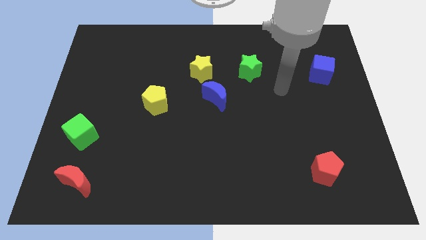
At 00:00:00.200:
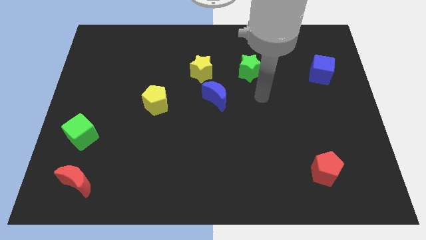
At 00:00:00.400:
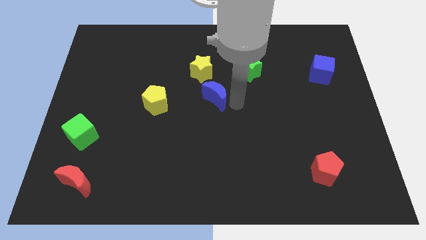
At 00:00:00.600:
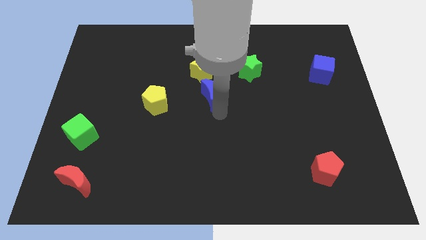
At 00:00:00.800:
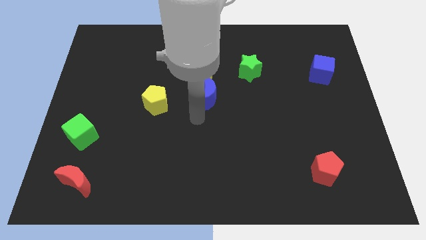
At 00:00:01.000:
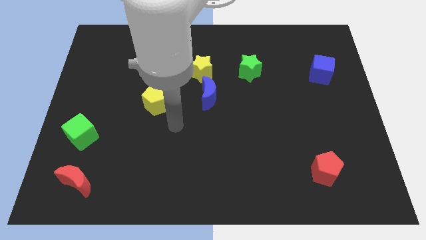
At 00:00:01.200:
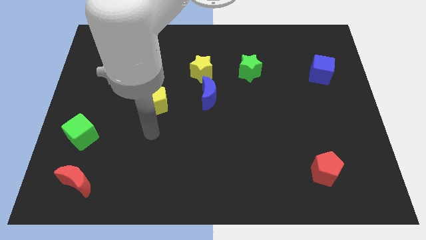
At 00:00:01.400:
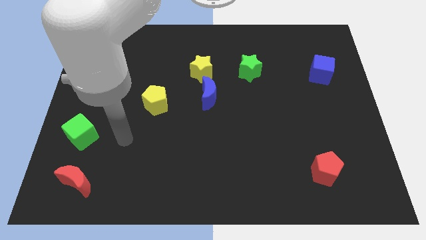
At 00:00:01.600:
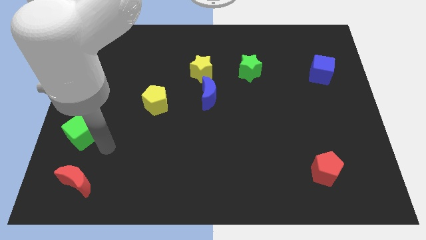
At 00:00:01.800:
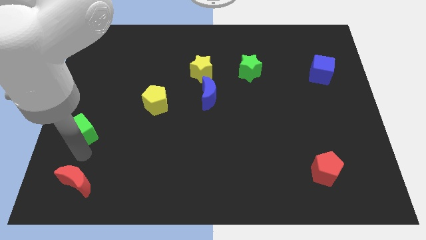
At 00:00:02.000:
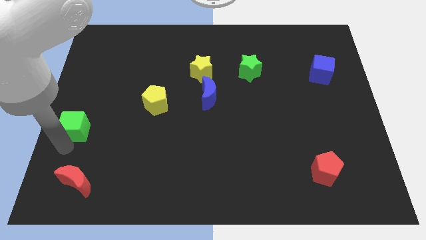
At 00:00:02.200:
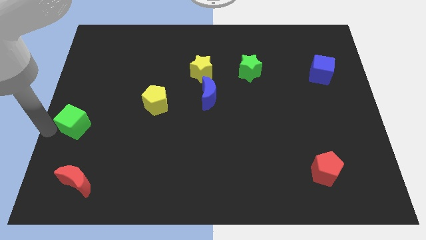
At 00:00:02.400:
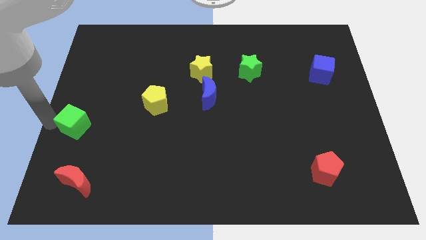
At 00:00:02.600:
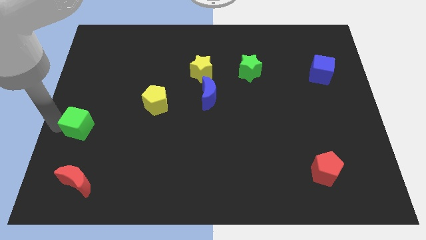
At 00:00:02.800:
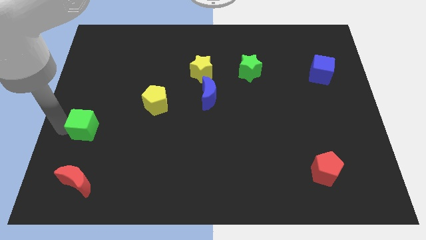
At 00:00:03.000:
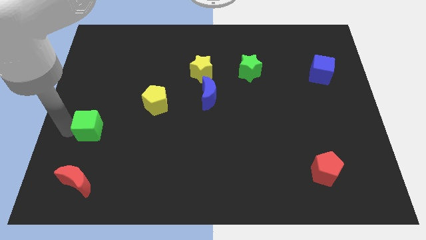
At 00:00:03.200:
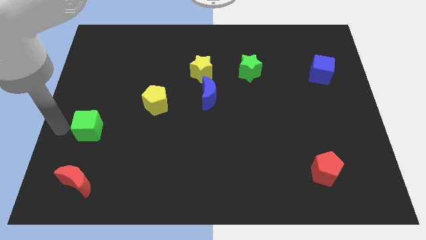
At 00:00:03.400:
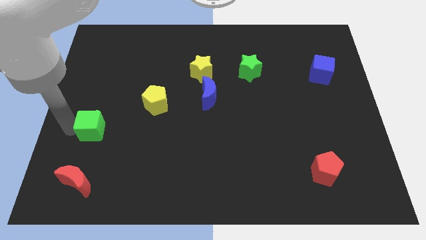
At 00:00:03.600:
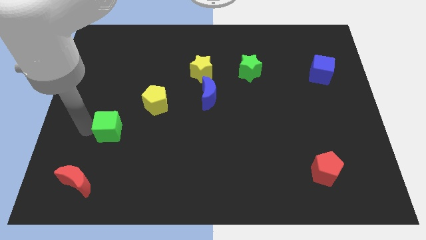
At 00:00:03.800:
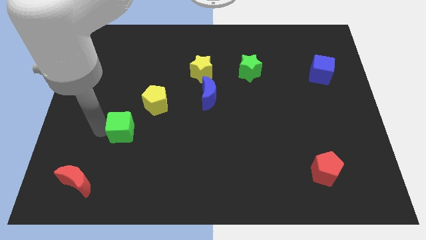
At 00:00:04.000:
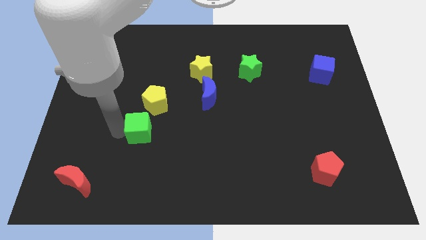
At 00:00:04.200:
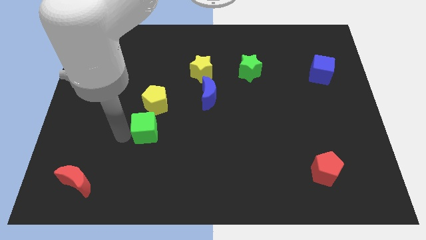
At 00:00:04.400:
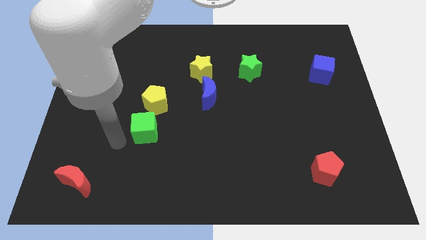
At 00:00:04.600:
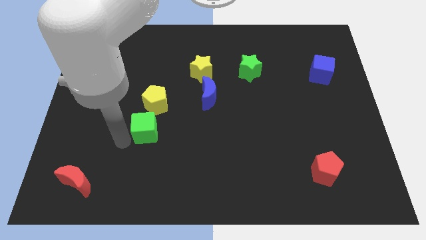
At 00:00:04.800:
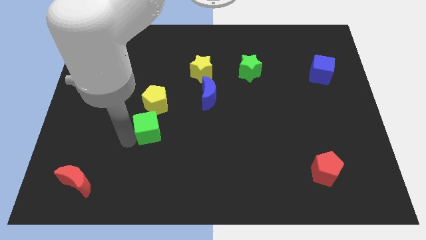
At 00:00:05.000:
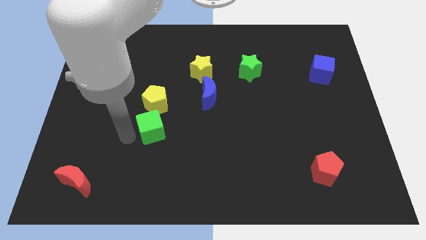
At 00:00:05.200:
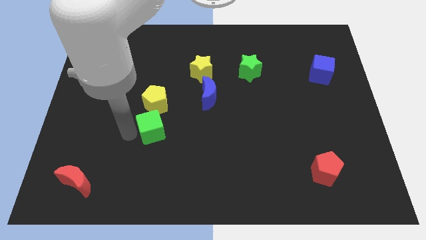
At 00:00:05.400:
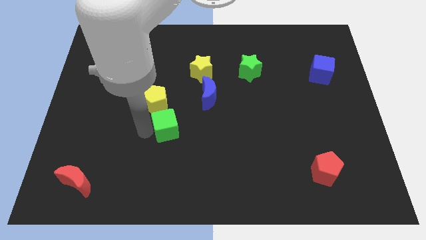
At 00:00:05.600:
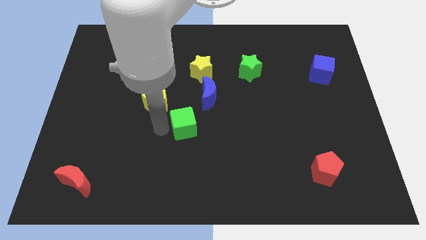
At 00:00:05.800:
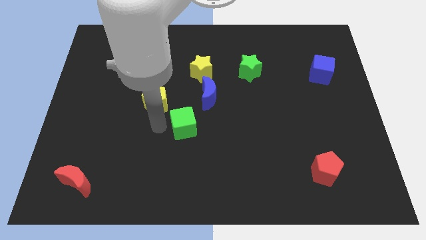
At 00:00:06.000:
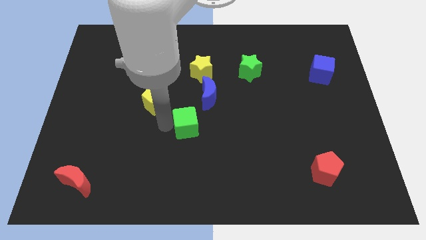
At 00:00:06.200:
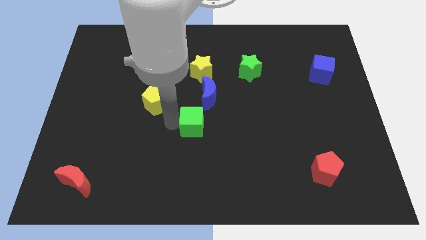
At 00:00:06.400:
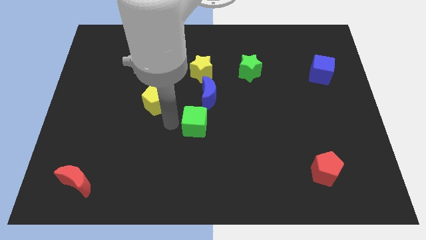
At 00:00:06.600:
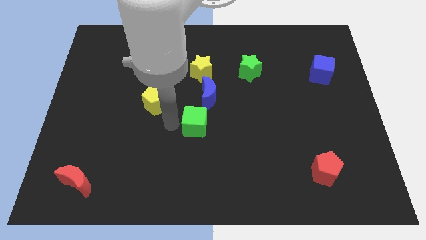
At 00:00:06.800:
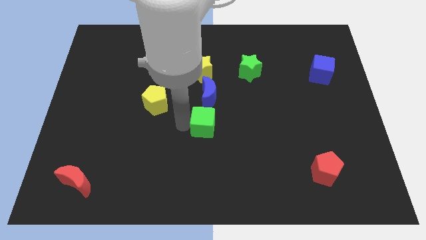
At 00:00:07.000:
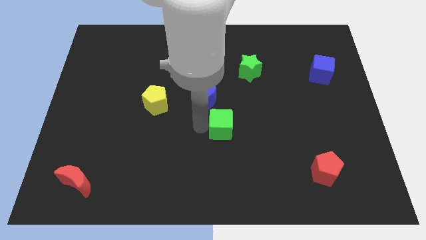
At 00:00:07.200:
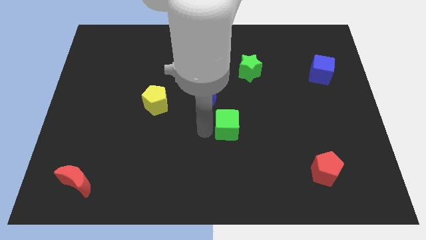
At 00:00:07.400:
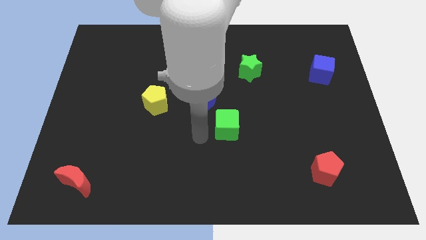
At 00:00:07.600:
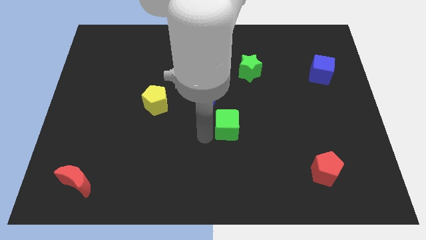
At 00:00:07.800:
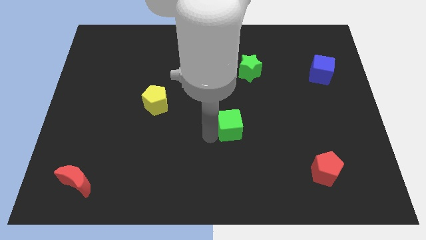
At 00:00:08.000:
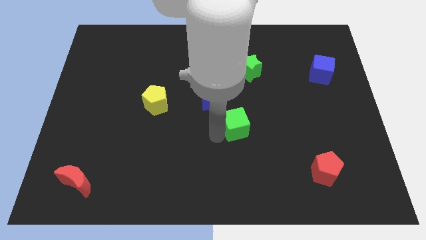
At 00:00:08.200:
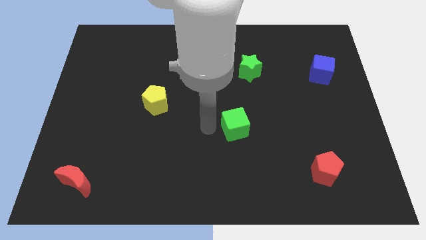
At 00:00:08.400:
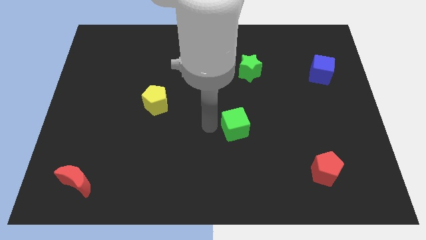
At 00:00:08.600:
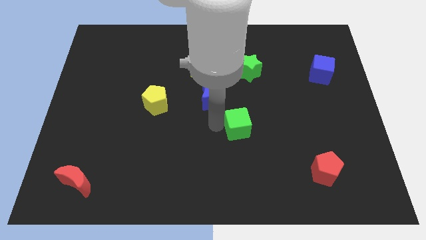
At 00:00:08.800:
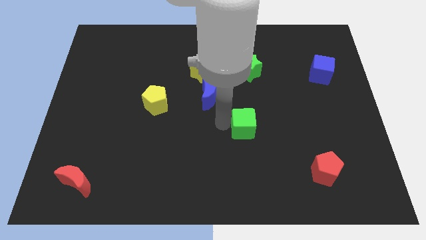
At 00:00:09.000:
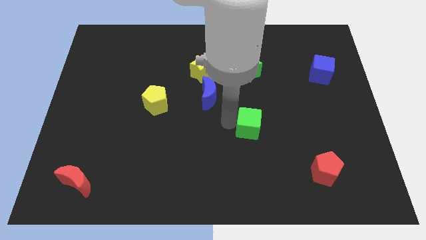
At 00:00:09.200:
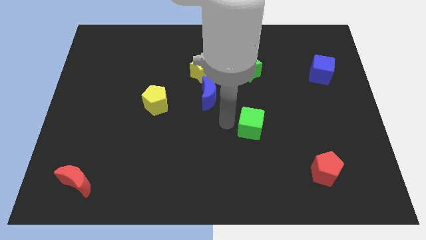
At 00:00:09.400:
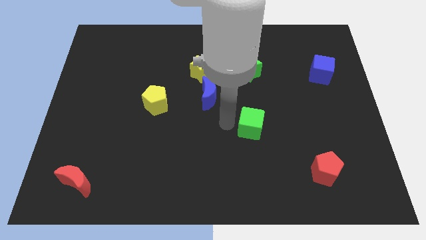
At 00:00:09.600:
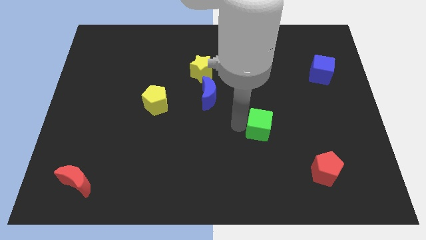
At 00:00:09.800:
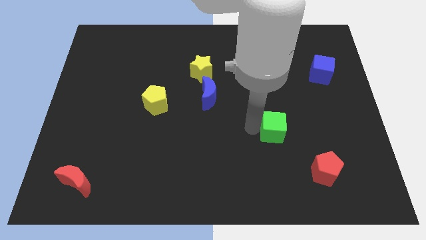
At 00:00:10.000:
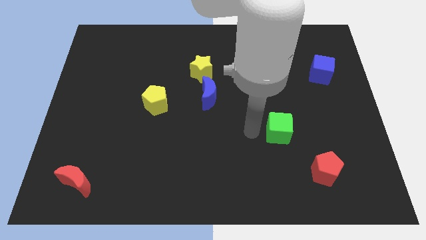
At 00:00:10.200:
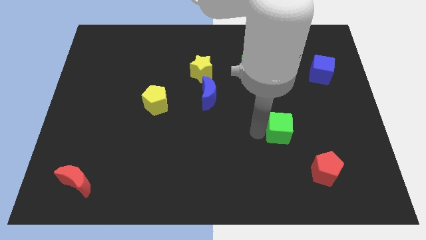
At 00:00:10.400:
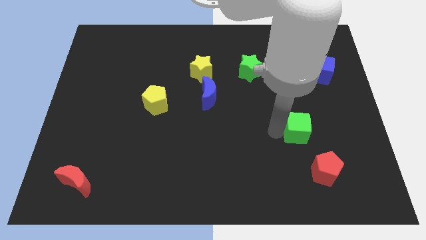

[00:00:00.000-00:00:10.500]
put the green cube to the top of the red pentagon

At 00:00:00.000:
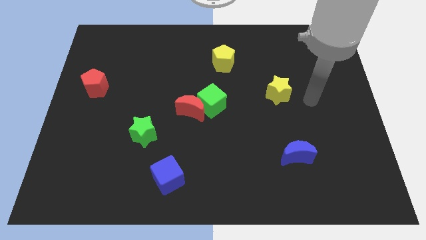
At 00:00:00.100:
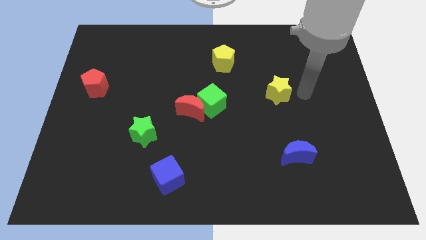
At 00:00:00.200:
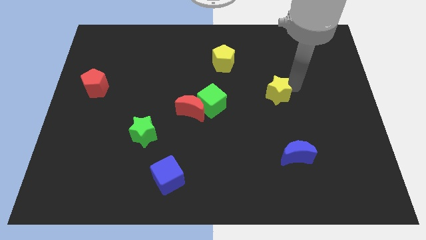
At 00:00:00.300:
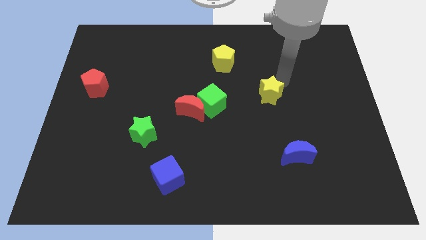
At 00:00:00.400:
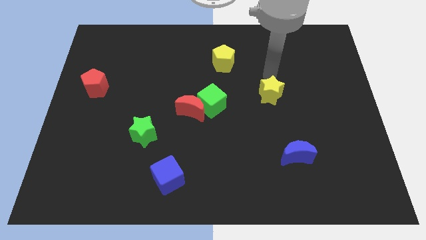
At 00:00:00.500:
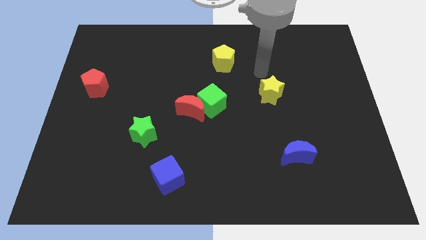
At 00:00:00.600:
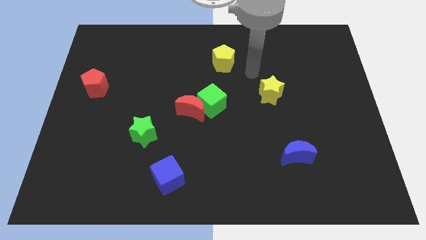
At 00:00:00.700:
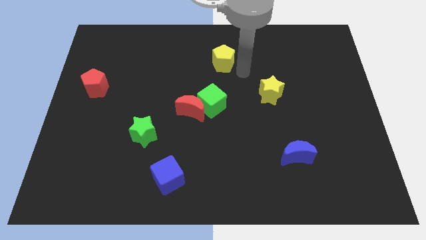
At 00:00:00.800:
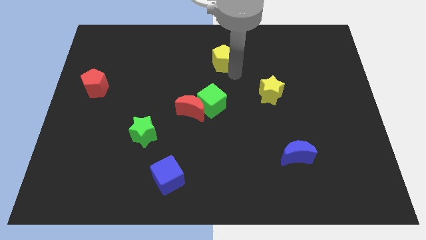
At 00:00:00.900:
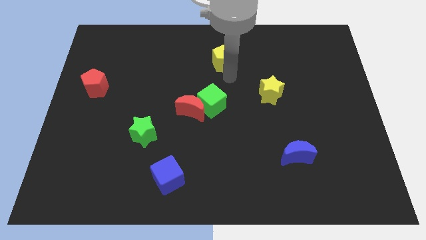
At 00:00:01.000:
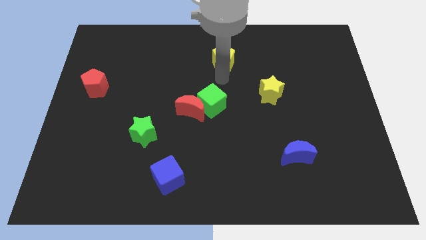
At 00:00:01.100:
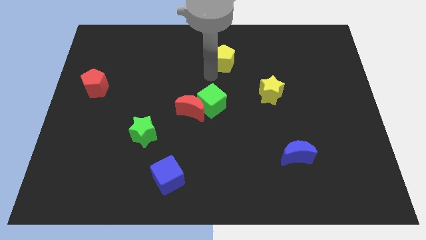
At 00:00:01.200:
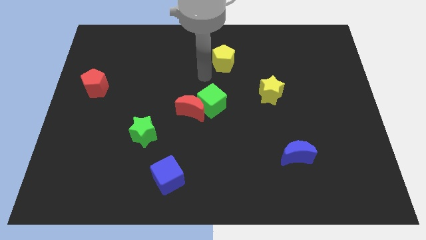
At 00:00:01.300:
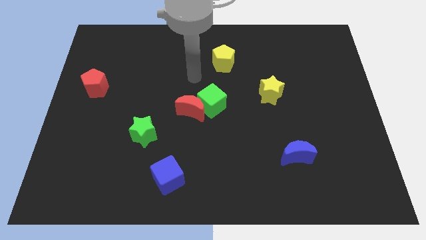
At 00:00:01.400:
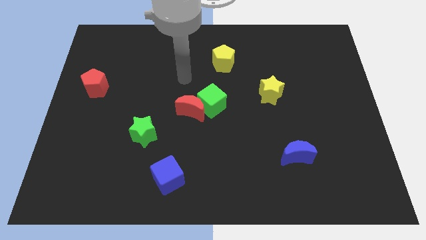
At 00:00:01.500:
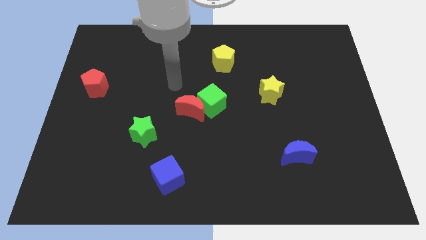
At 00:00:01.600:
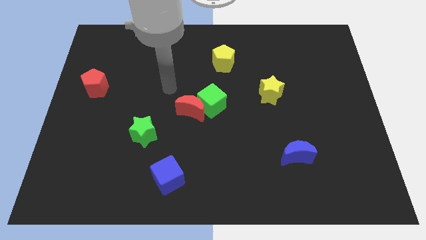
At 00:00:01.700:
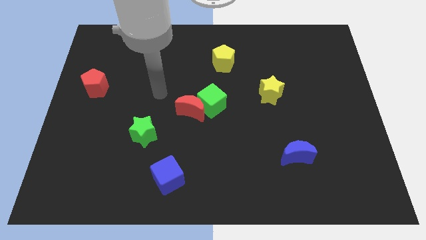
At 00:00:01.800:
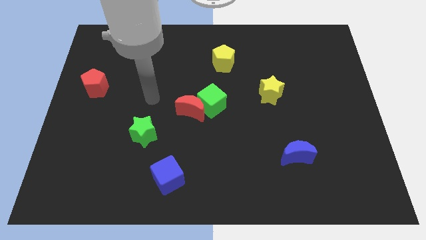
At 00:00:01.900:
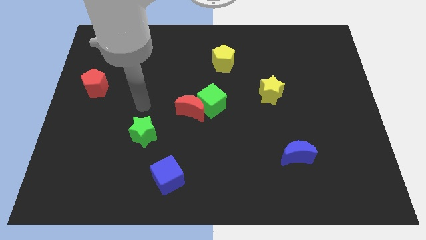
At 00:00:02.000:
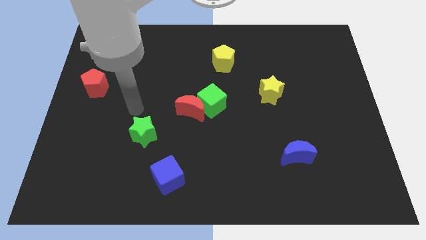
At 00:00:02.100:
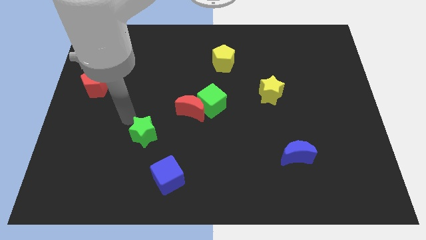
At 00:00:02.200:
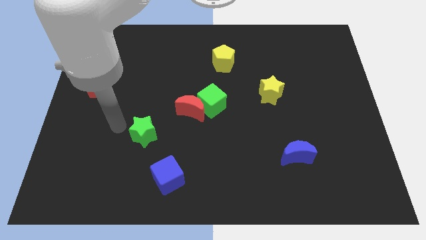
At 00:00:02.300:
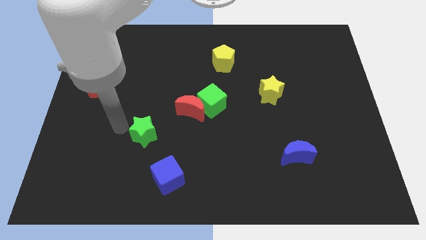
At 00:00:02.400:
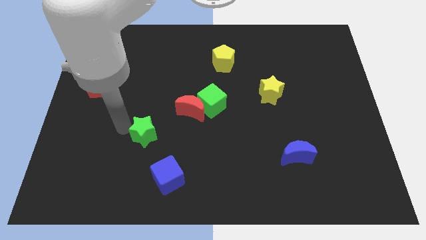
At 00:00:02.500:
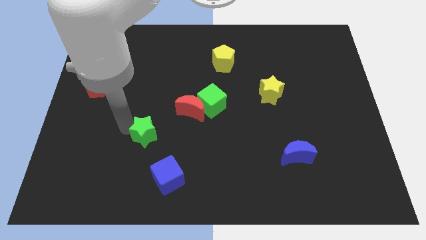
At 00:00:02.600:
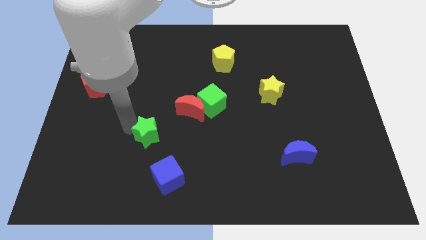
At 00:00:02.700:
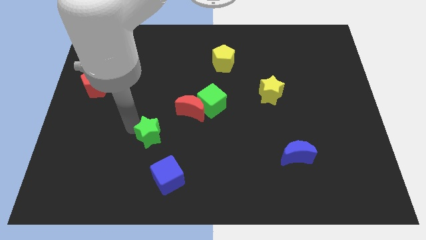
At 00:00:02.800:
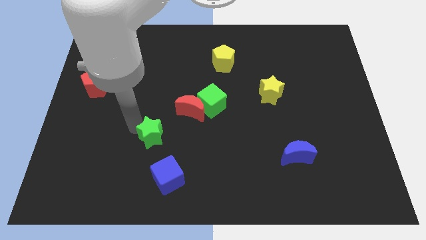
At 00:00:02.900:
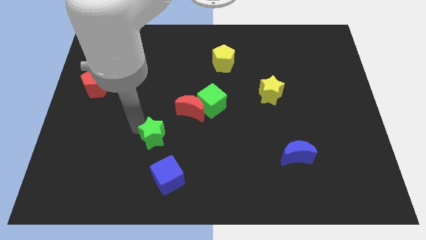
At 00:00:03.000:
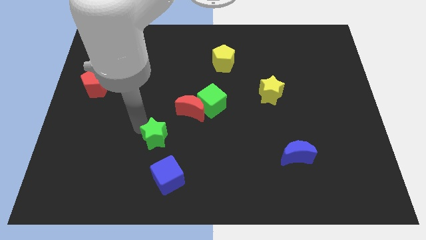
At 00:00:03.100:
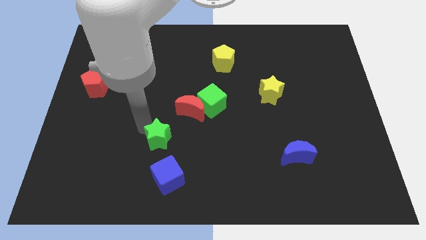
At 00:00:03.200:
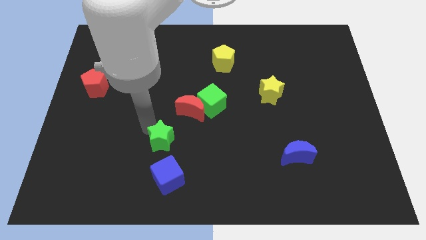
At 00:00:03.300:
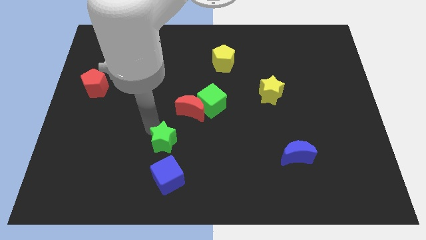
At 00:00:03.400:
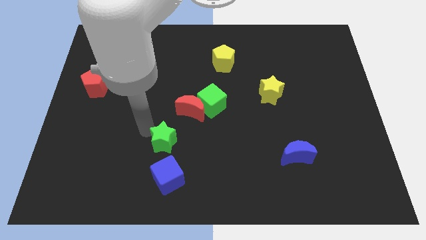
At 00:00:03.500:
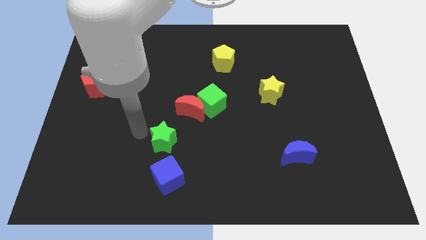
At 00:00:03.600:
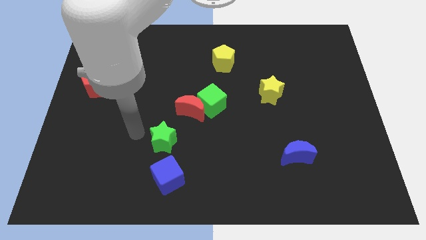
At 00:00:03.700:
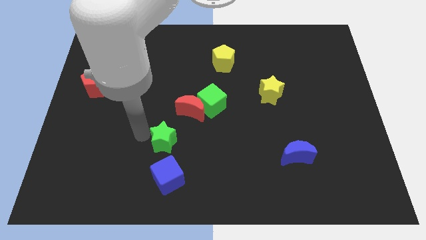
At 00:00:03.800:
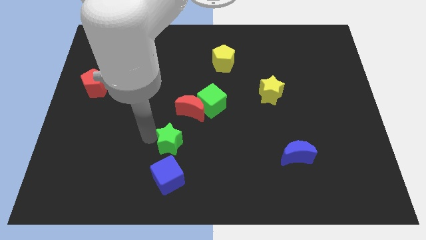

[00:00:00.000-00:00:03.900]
slide the green star to the bottom side of the red moon
